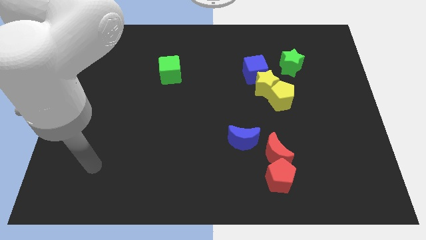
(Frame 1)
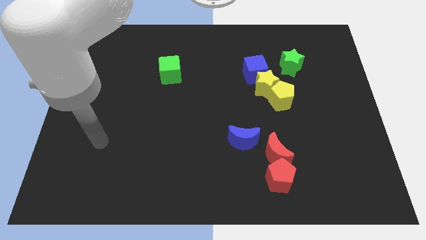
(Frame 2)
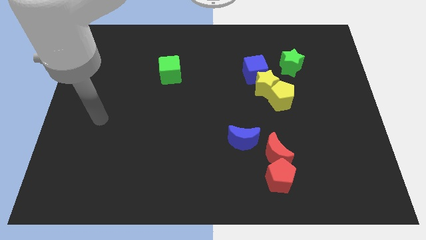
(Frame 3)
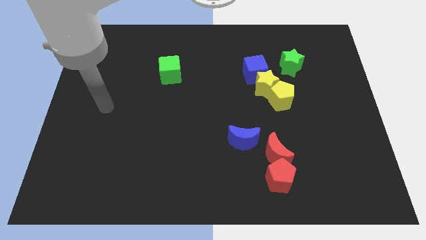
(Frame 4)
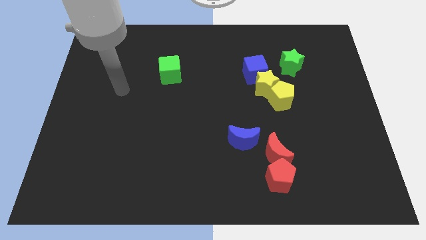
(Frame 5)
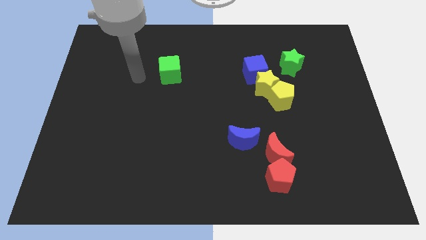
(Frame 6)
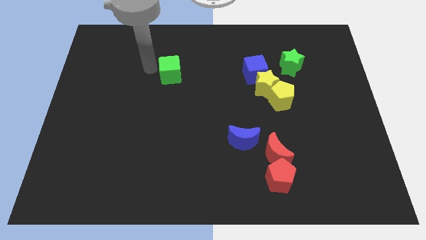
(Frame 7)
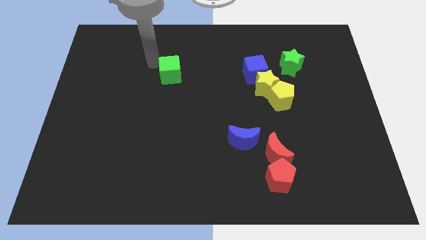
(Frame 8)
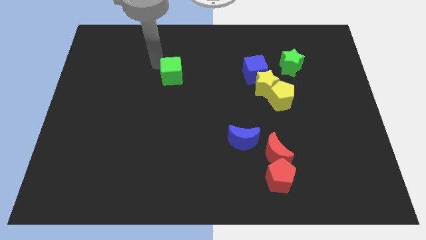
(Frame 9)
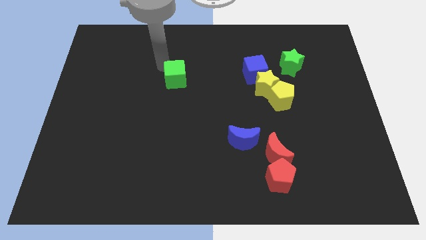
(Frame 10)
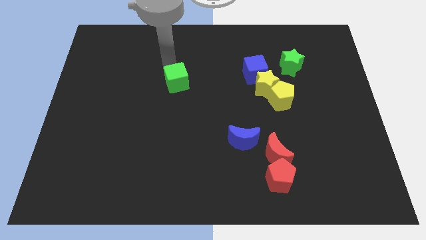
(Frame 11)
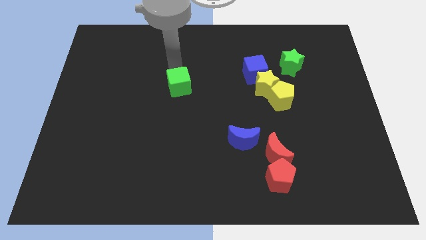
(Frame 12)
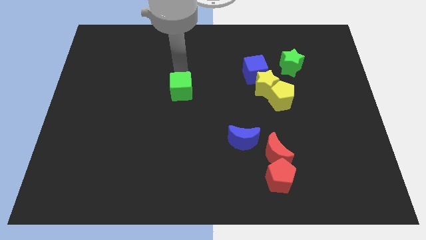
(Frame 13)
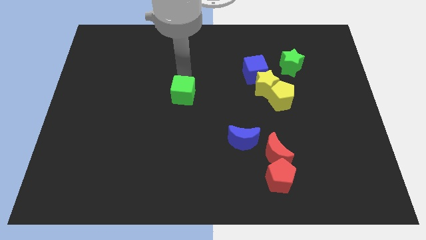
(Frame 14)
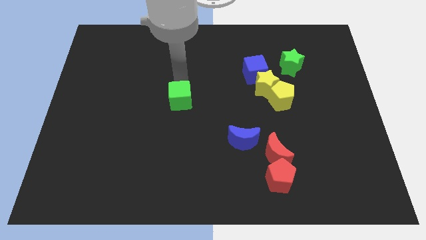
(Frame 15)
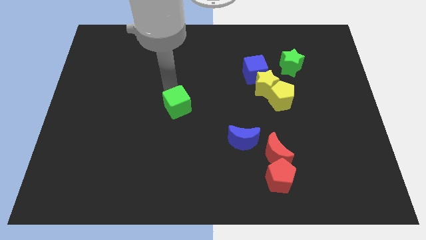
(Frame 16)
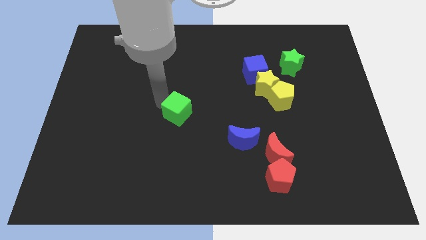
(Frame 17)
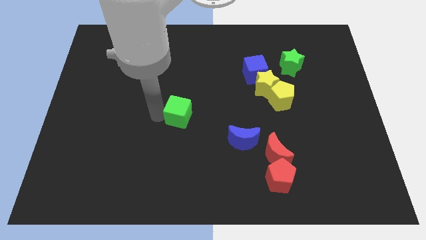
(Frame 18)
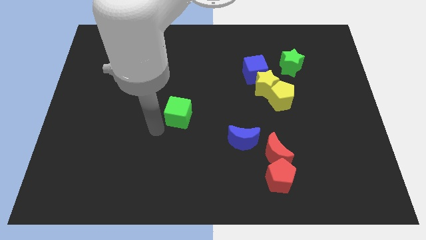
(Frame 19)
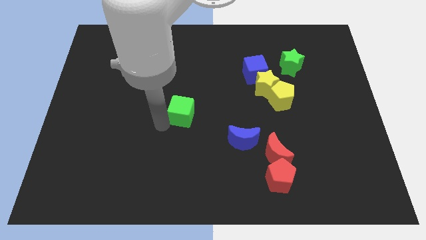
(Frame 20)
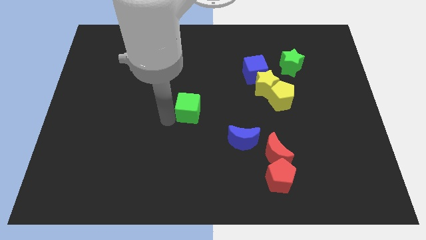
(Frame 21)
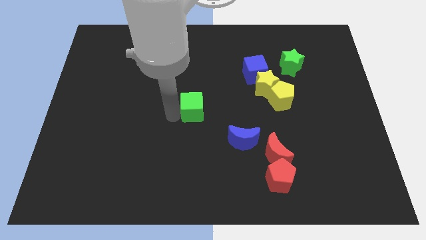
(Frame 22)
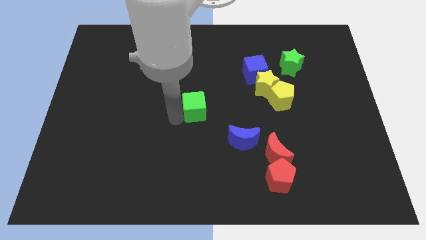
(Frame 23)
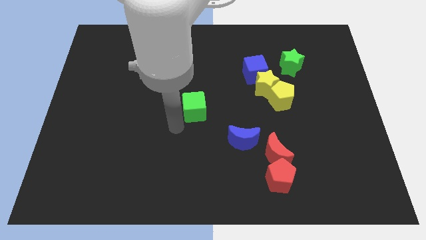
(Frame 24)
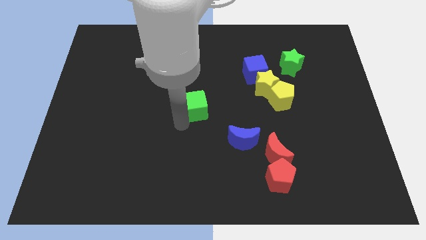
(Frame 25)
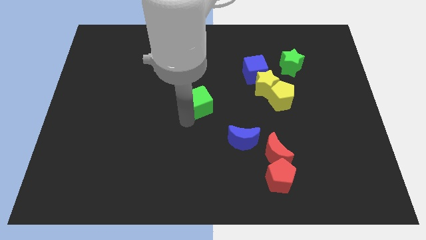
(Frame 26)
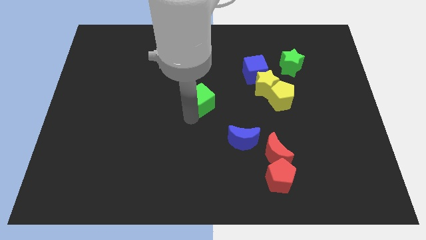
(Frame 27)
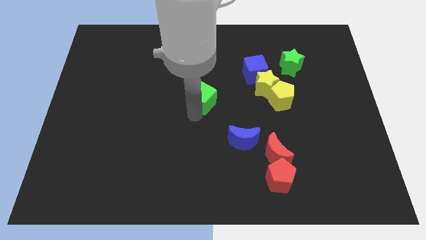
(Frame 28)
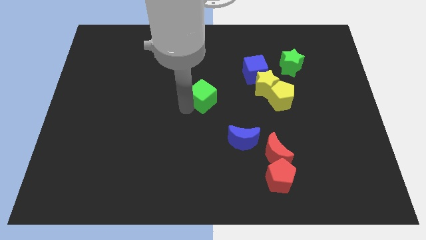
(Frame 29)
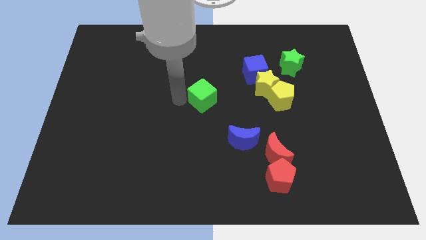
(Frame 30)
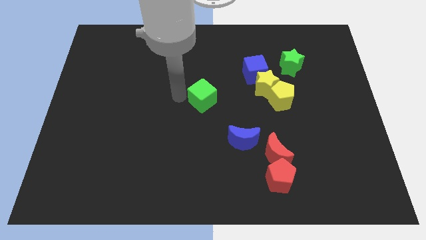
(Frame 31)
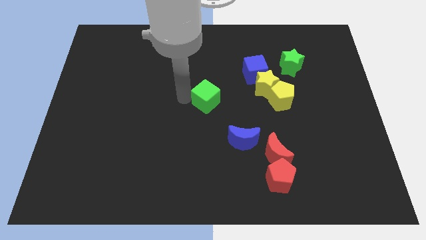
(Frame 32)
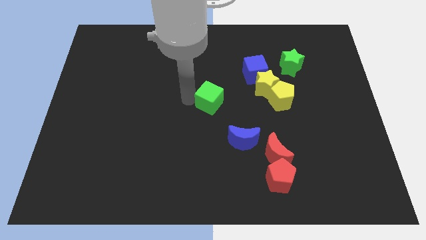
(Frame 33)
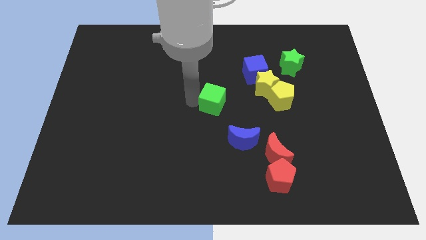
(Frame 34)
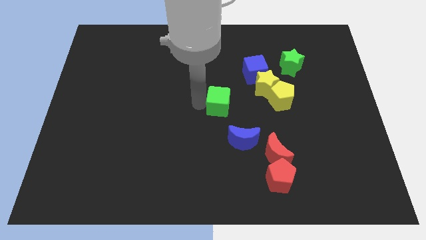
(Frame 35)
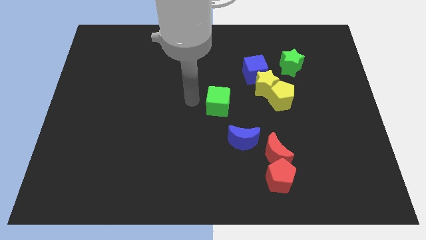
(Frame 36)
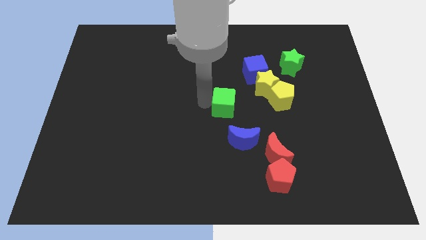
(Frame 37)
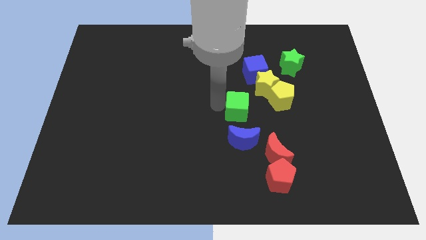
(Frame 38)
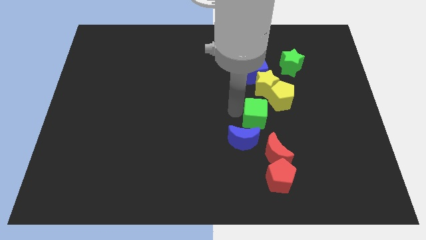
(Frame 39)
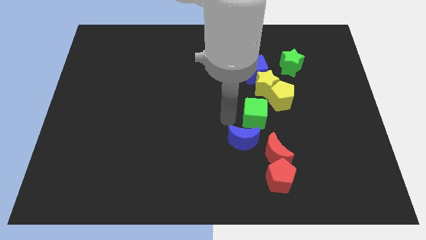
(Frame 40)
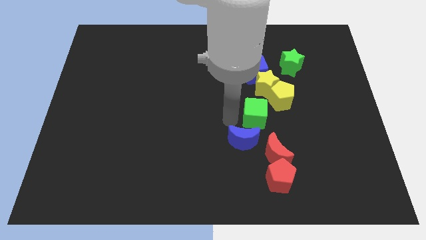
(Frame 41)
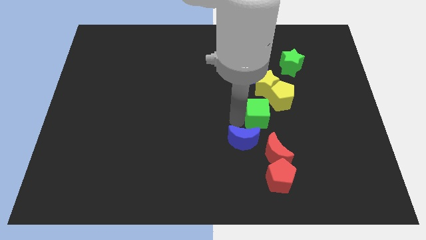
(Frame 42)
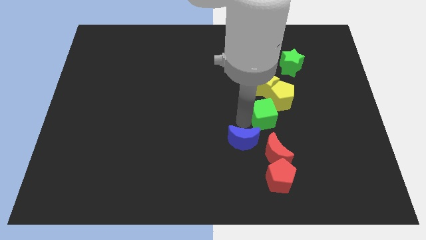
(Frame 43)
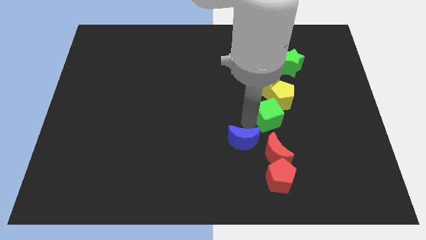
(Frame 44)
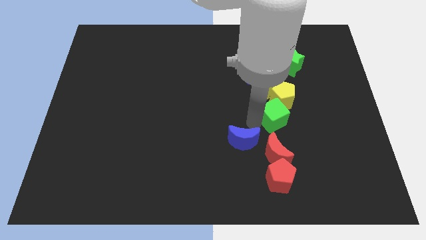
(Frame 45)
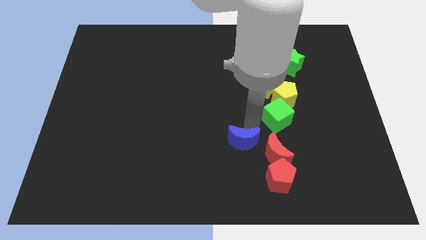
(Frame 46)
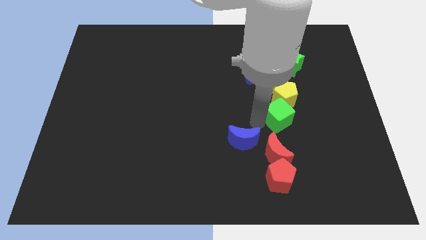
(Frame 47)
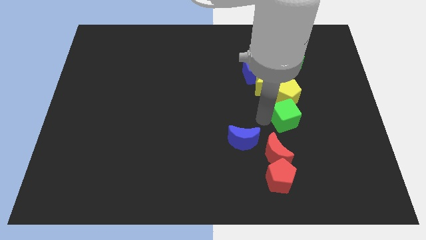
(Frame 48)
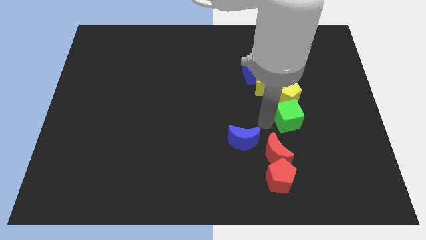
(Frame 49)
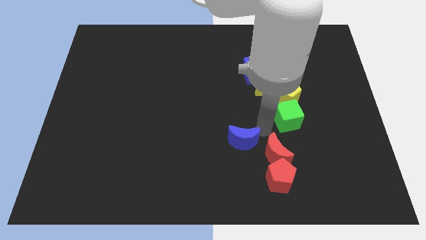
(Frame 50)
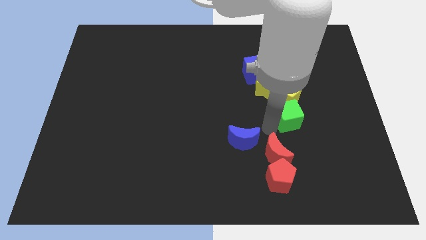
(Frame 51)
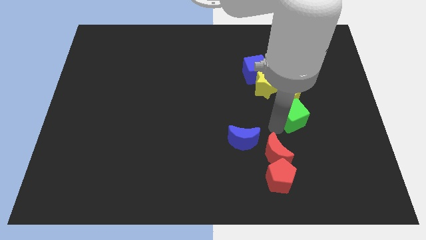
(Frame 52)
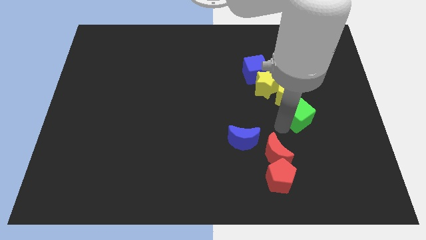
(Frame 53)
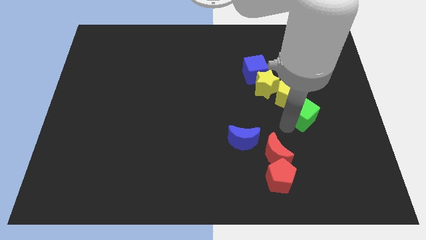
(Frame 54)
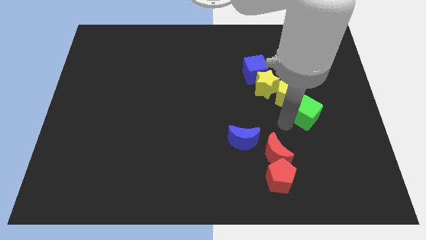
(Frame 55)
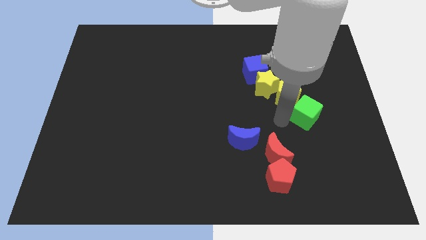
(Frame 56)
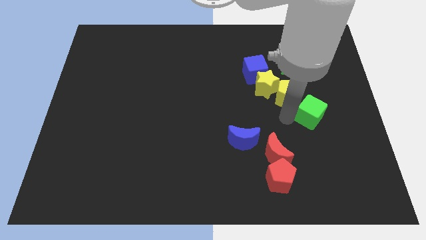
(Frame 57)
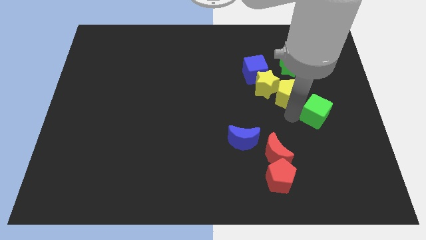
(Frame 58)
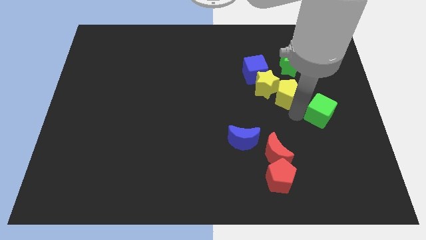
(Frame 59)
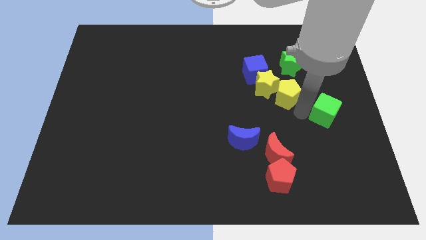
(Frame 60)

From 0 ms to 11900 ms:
move the green cube to the right side

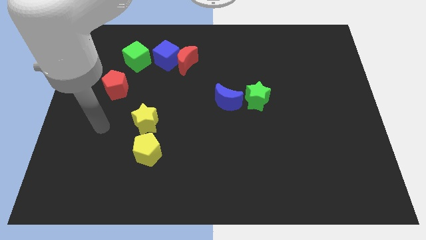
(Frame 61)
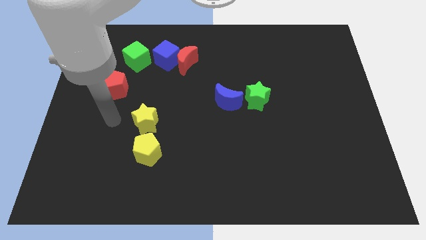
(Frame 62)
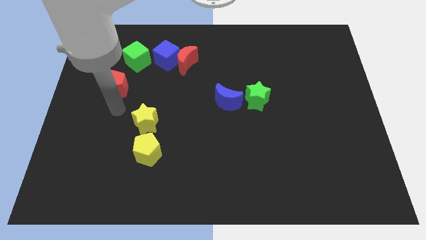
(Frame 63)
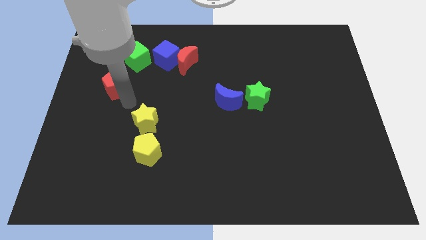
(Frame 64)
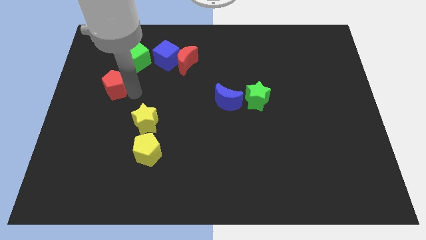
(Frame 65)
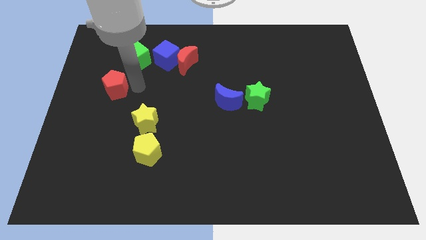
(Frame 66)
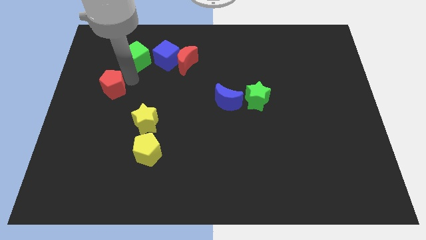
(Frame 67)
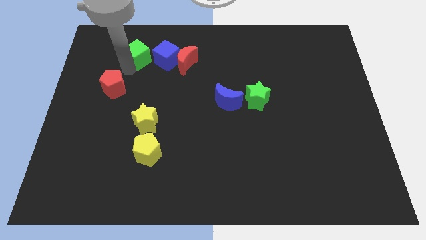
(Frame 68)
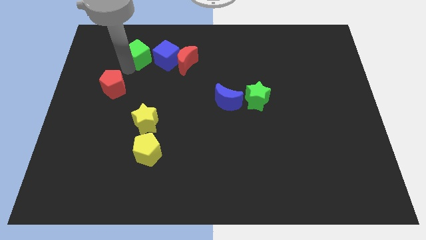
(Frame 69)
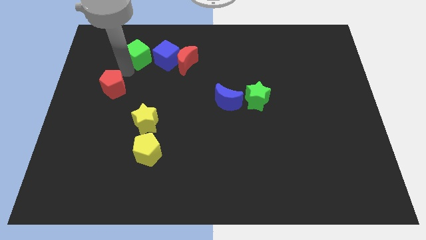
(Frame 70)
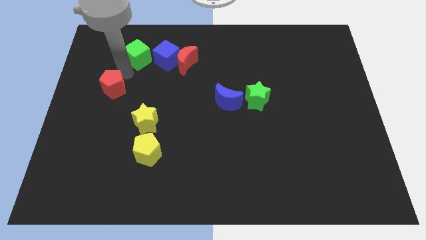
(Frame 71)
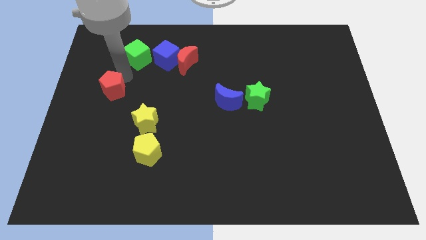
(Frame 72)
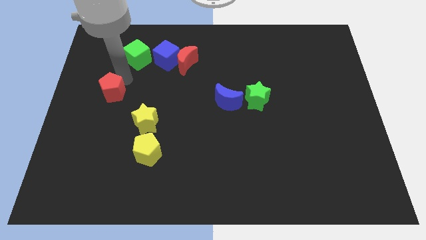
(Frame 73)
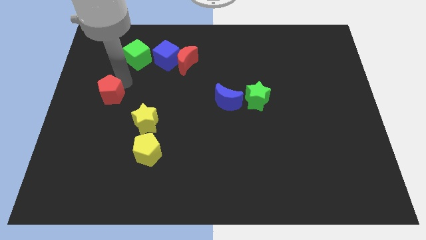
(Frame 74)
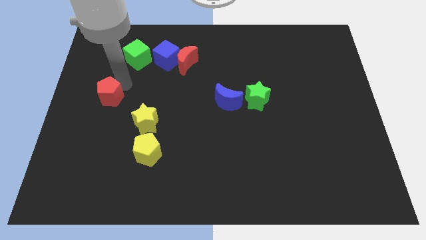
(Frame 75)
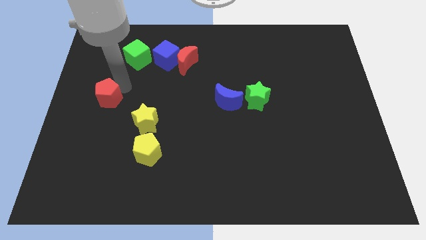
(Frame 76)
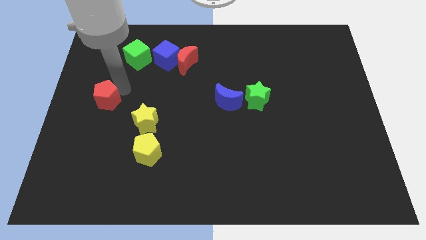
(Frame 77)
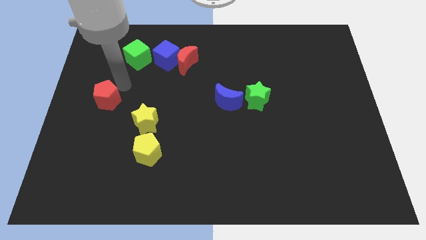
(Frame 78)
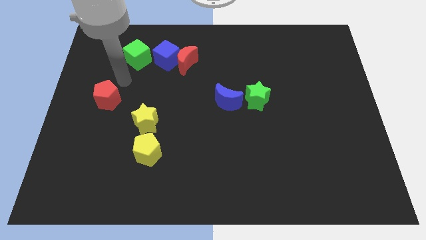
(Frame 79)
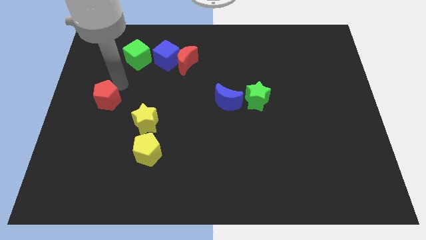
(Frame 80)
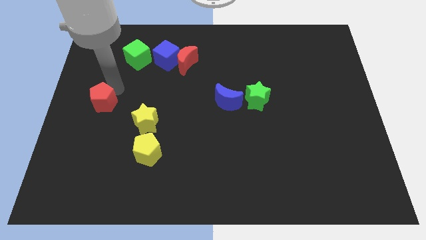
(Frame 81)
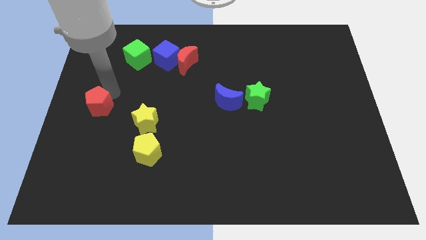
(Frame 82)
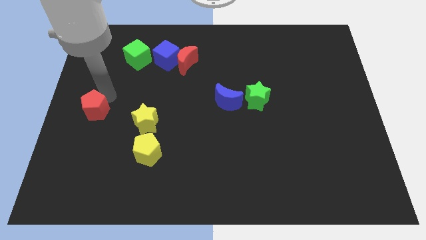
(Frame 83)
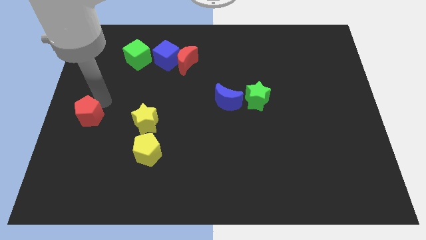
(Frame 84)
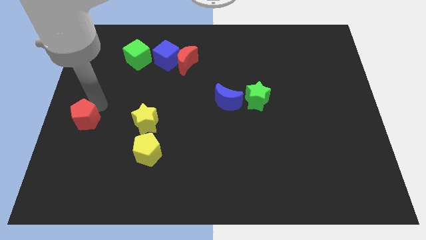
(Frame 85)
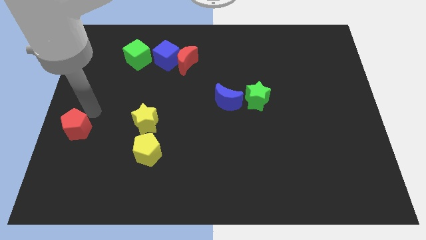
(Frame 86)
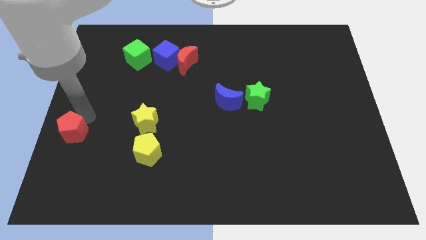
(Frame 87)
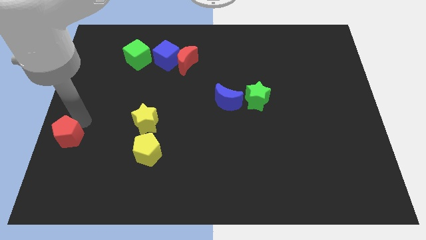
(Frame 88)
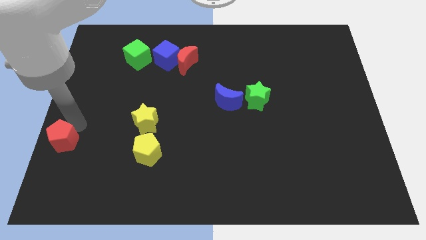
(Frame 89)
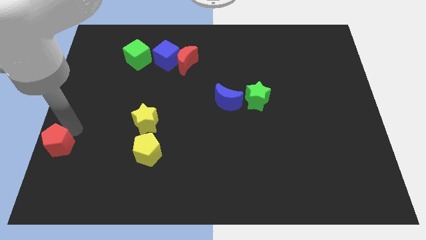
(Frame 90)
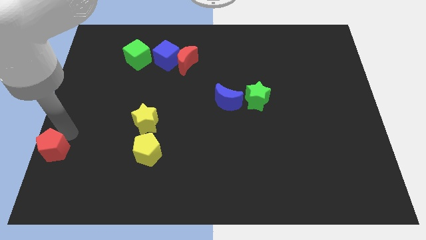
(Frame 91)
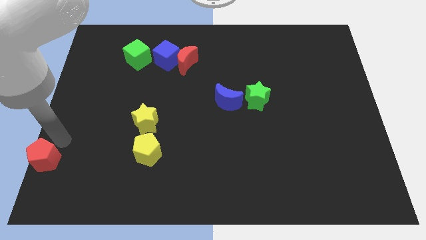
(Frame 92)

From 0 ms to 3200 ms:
slide the red pentagon to the lower left corner
